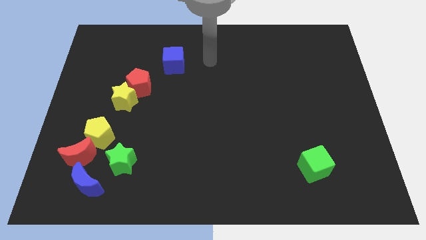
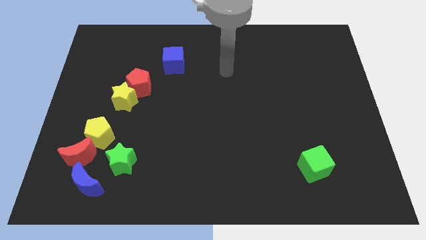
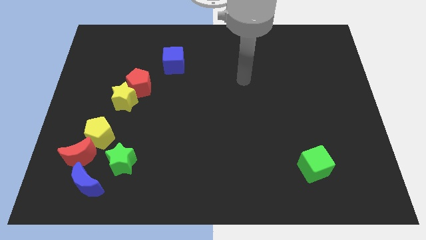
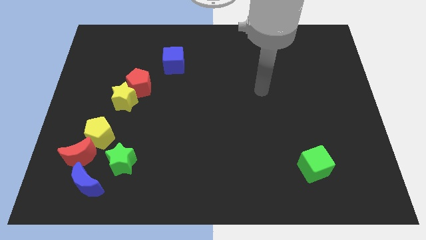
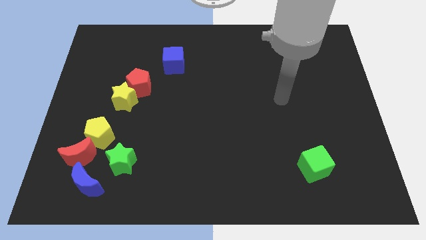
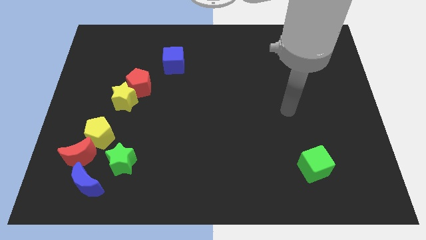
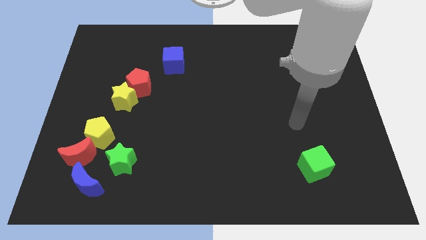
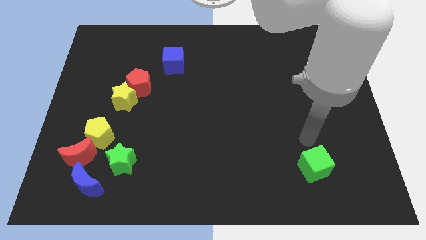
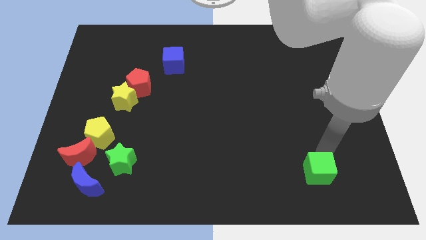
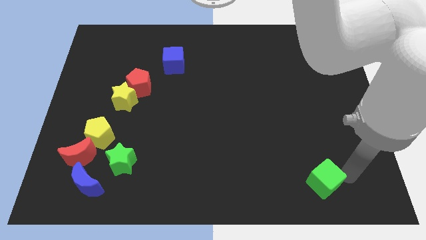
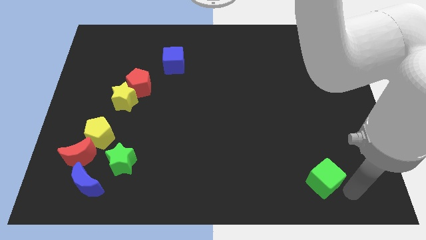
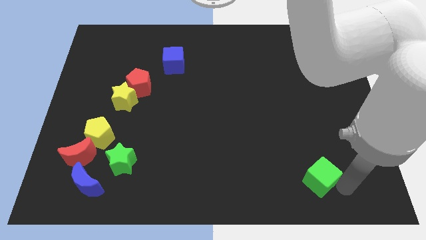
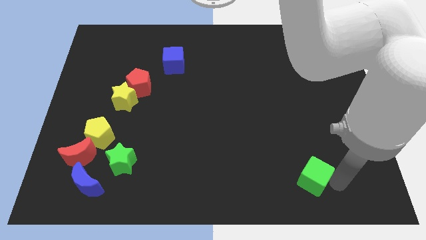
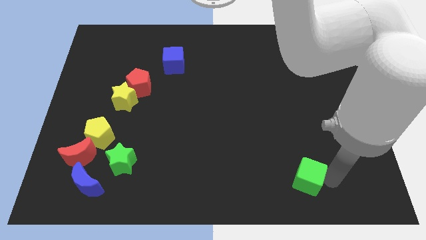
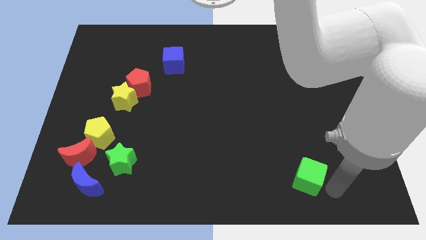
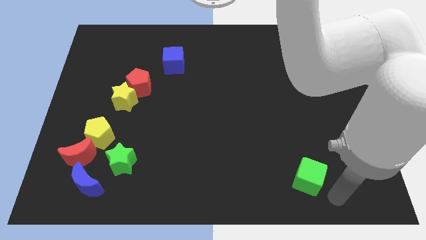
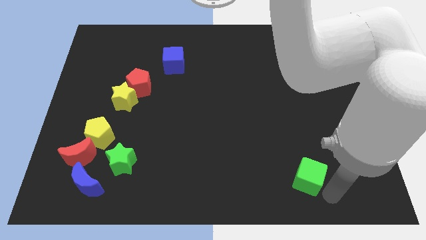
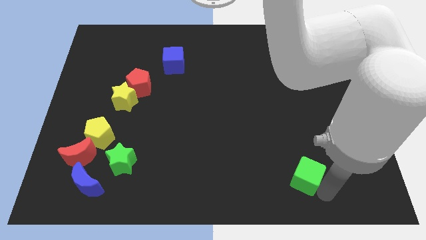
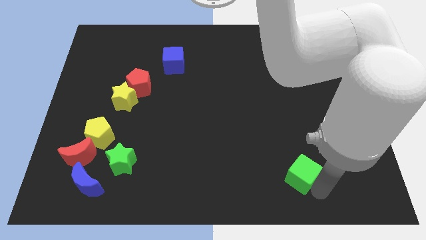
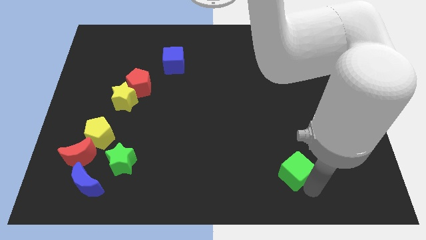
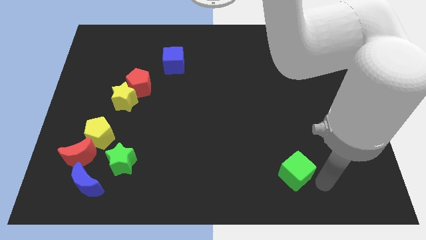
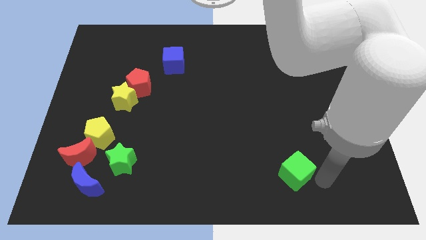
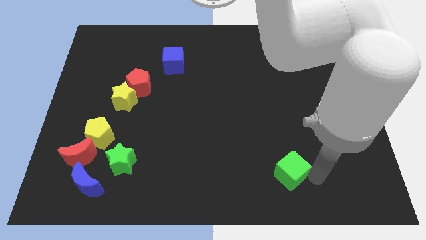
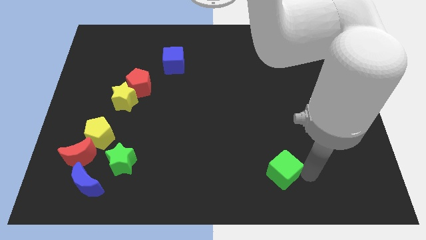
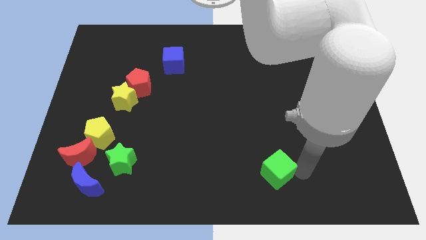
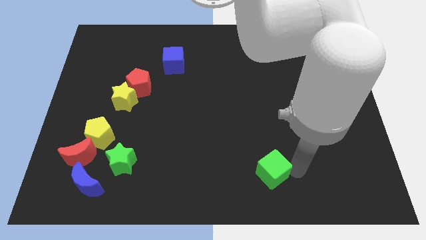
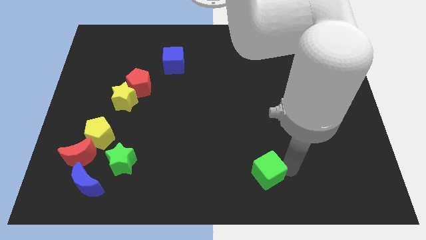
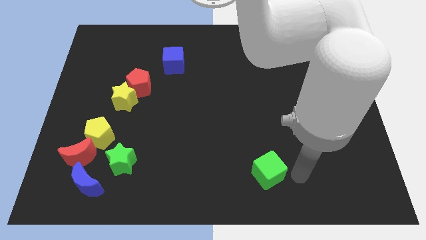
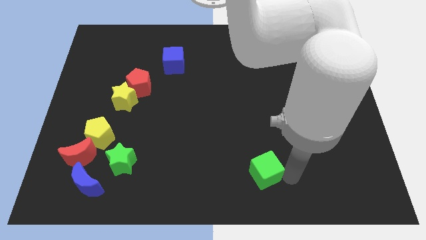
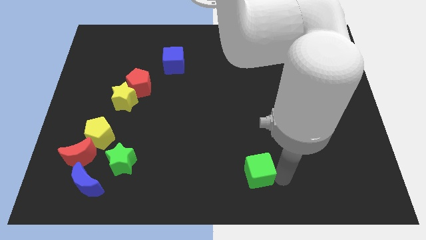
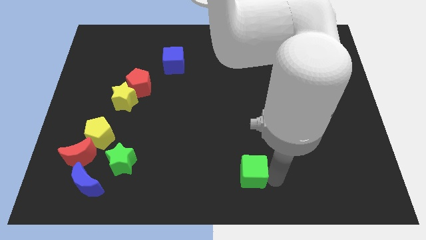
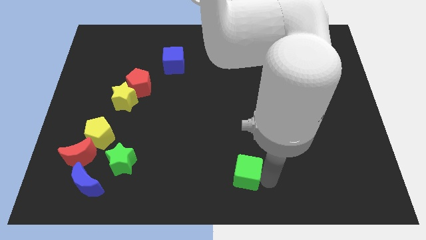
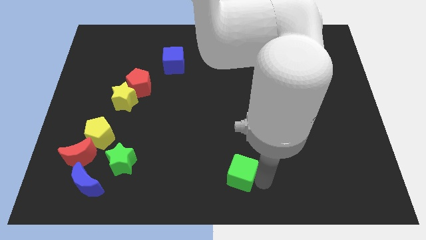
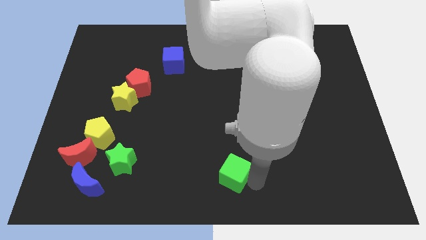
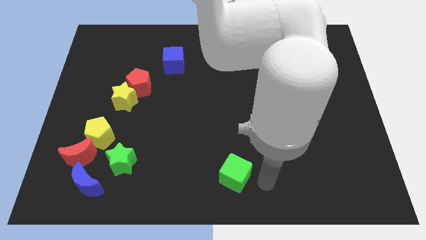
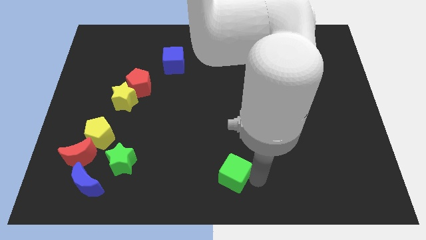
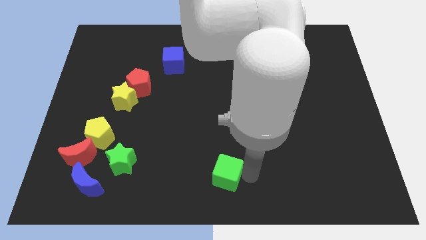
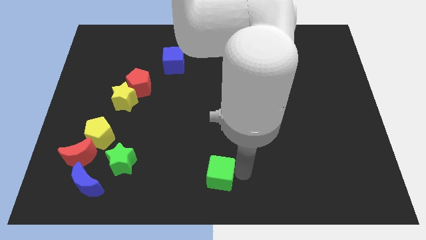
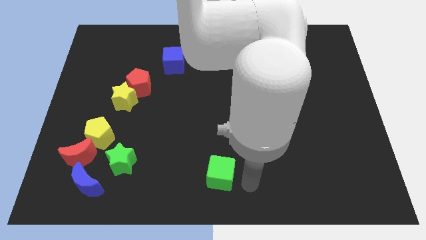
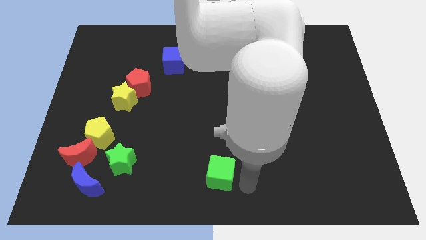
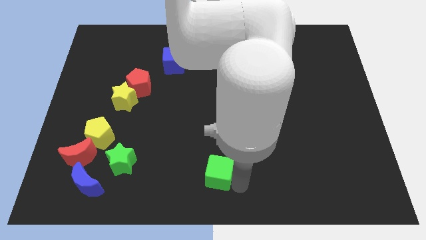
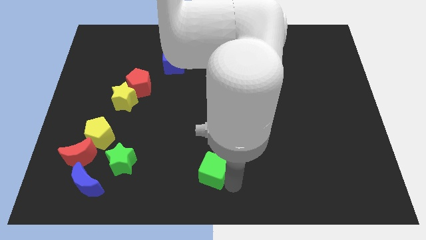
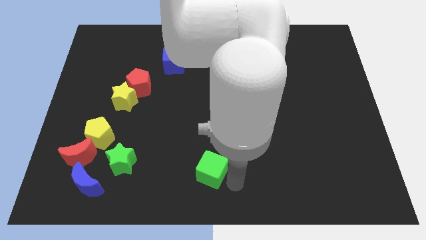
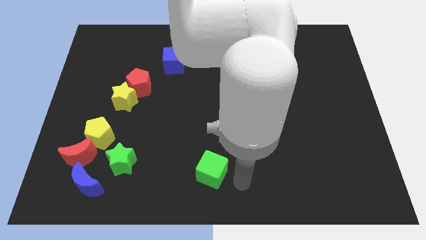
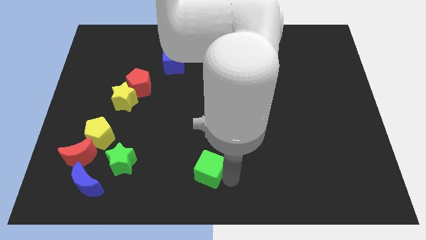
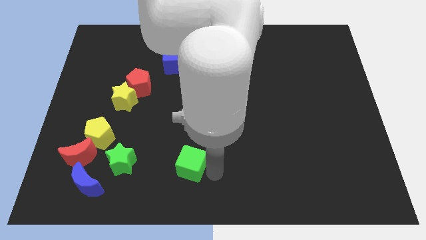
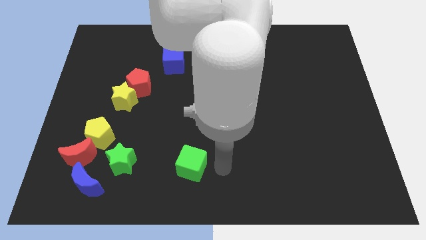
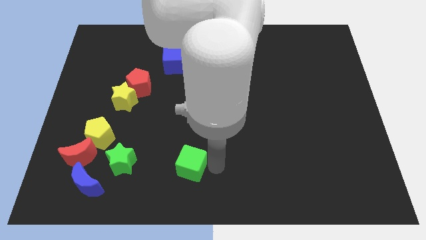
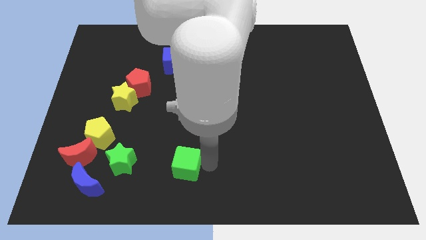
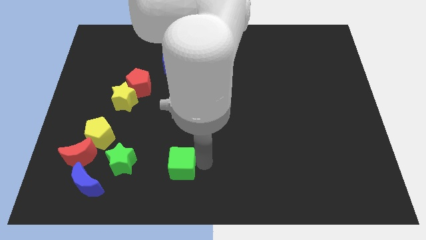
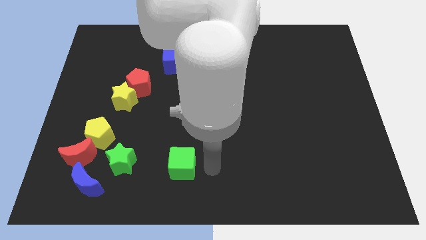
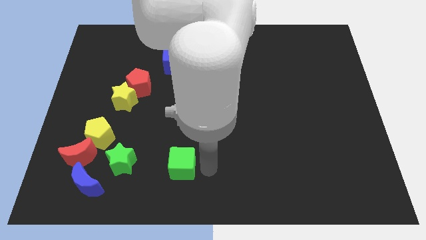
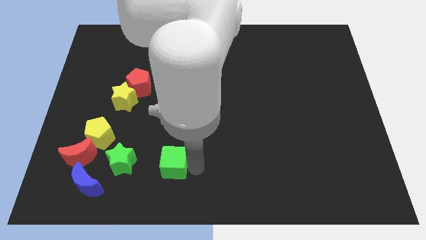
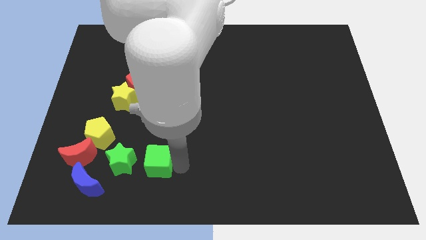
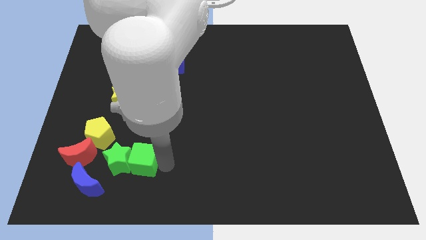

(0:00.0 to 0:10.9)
push the green cube towards the green star
